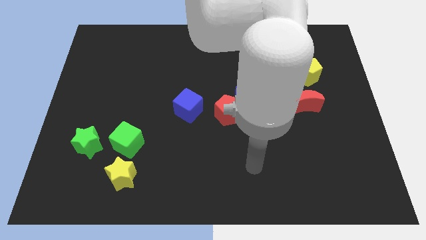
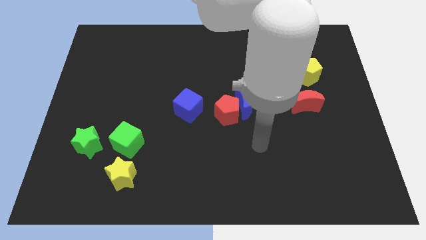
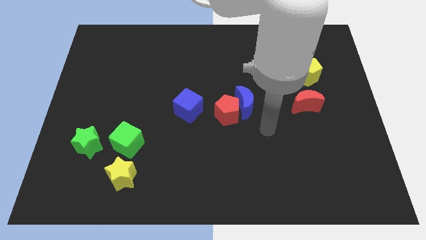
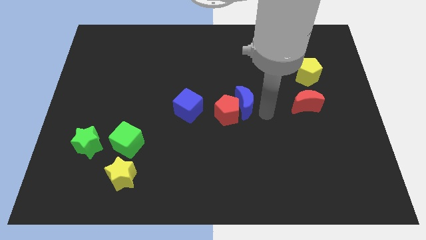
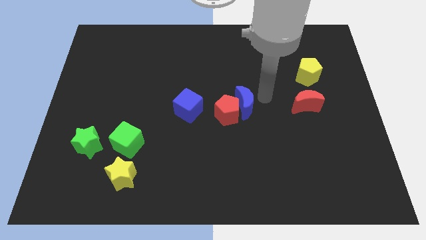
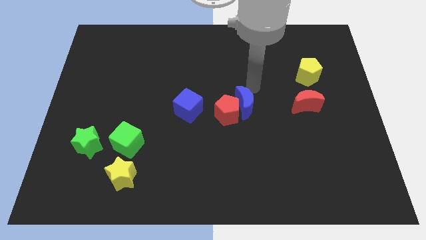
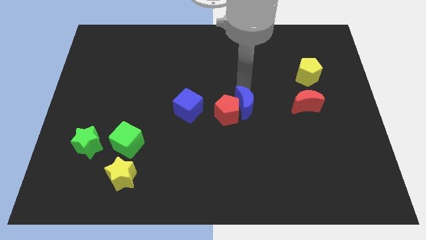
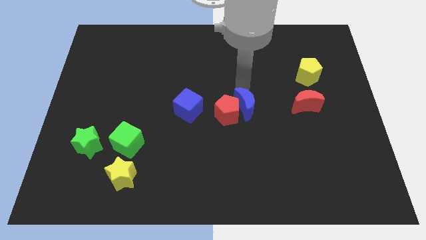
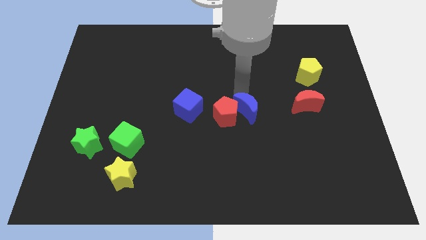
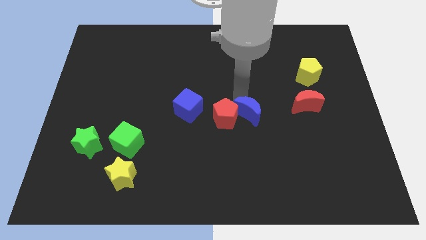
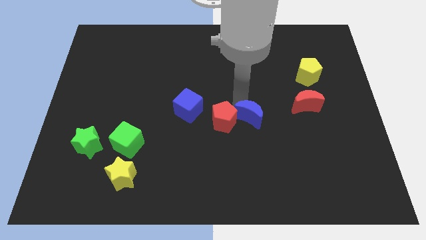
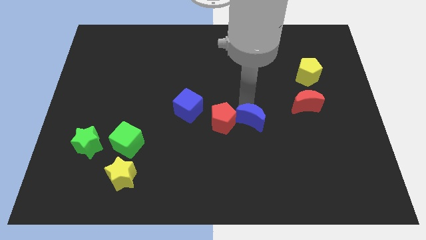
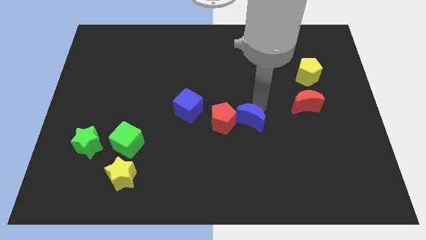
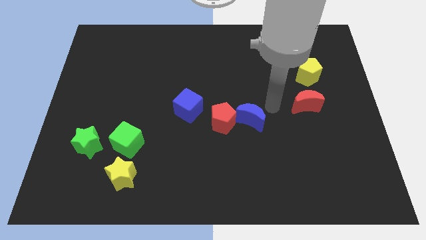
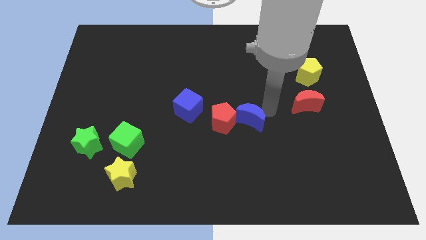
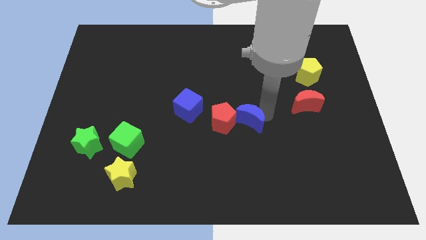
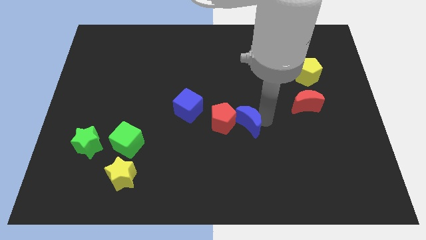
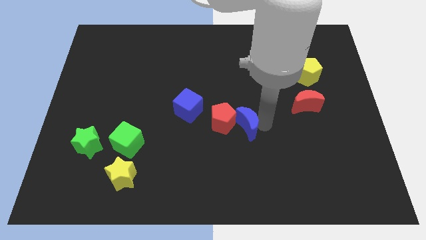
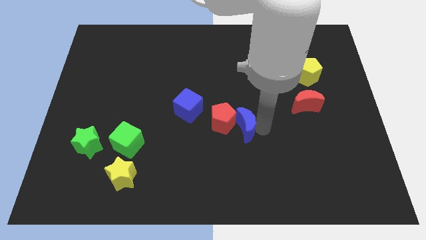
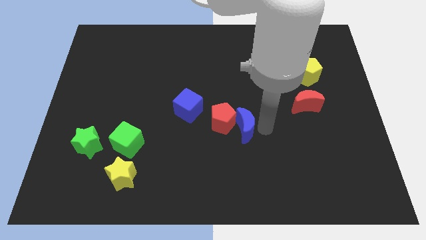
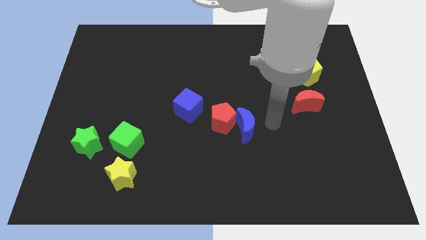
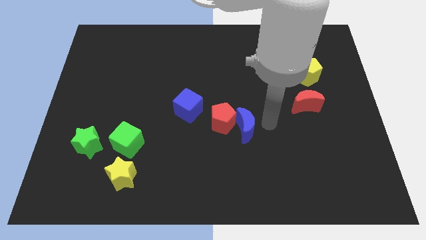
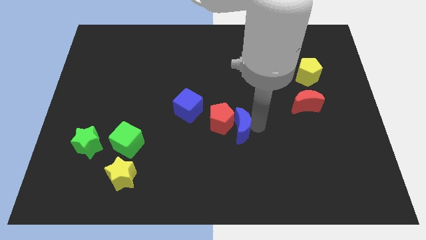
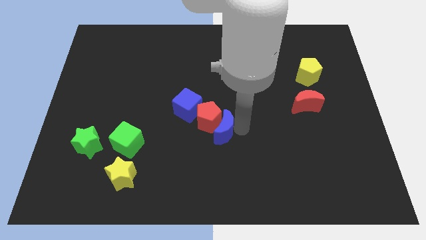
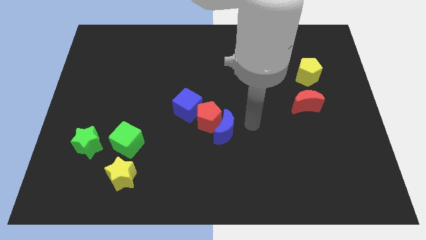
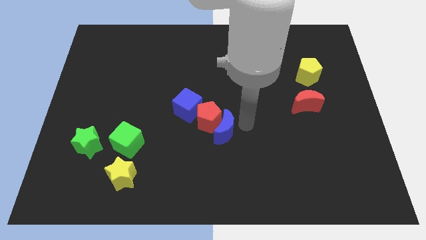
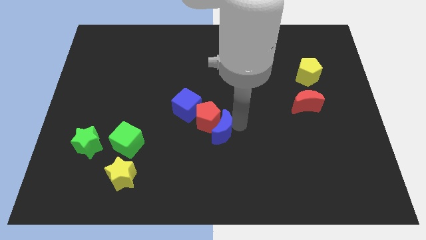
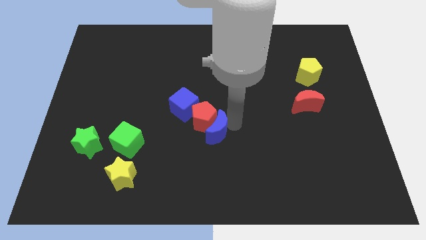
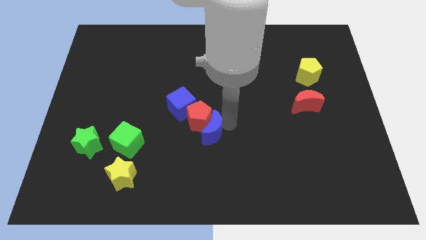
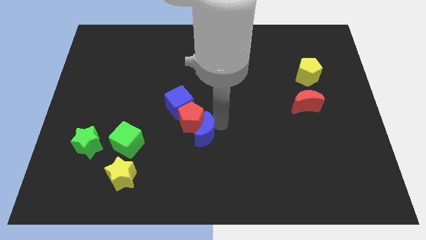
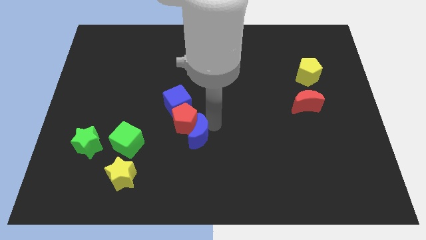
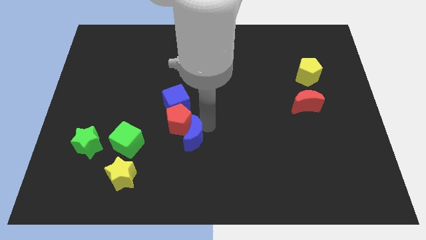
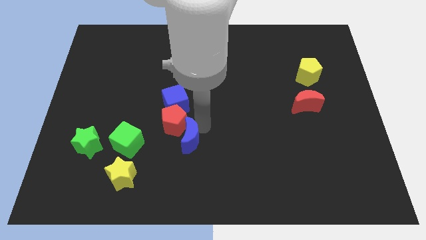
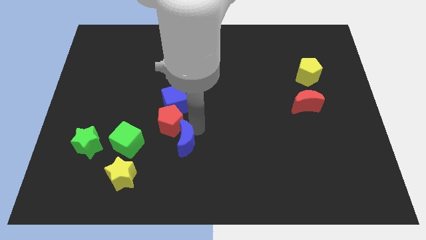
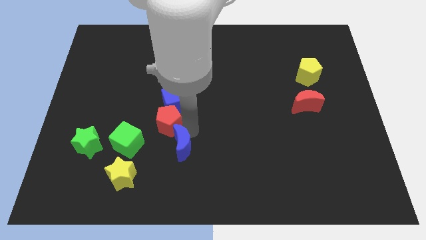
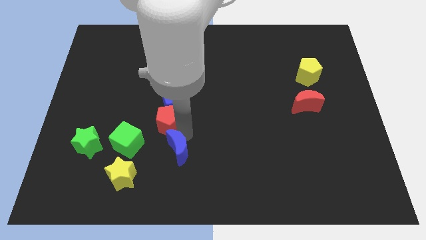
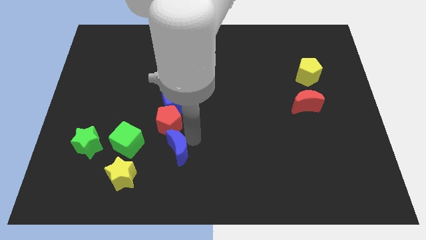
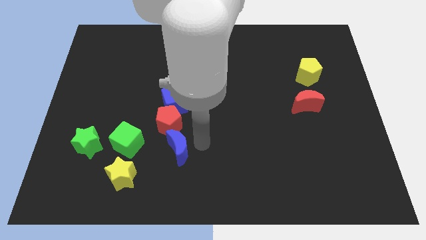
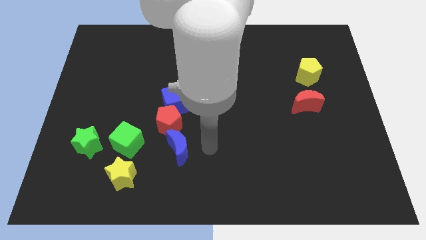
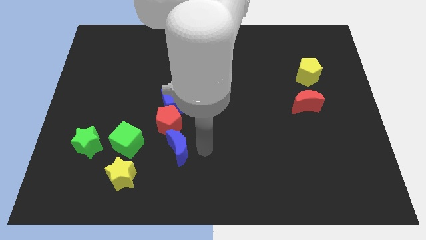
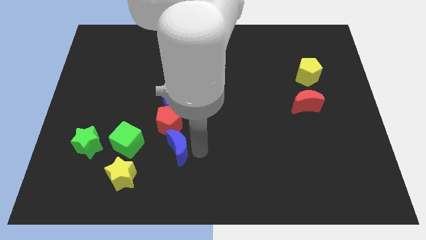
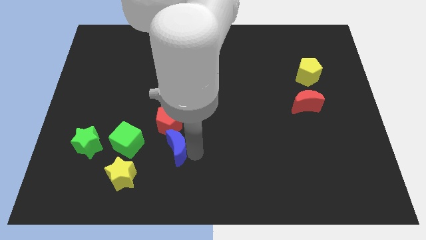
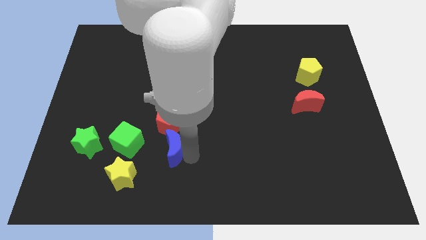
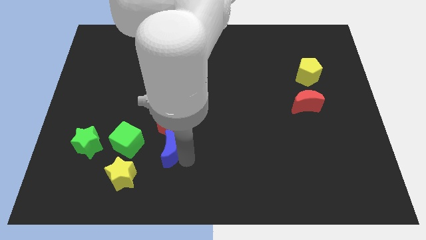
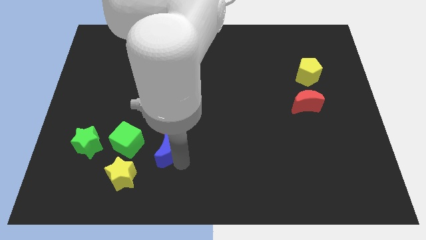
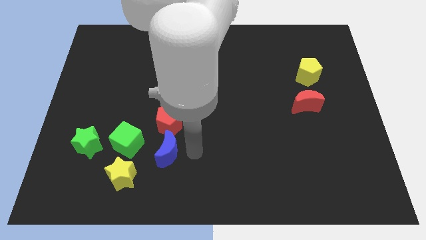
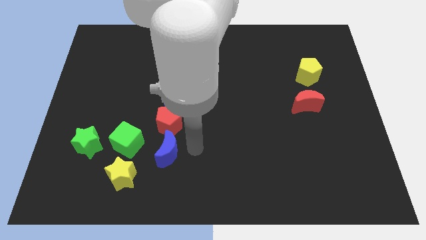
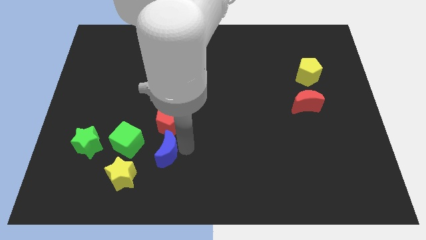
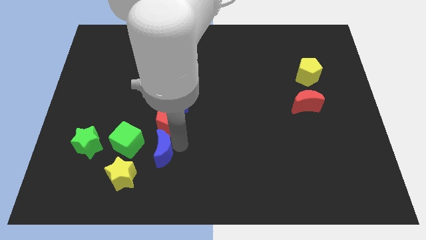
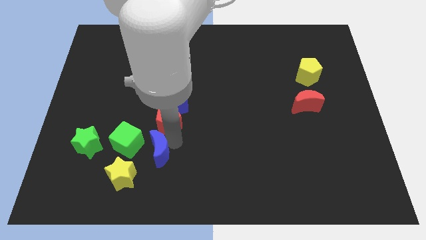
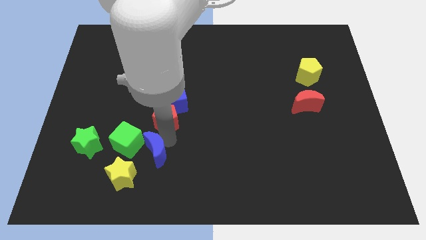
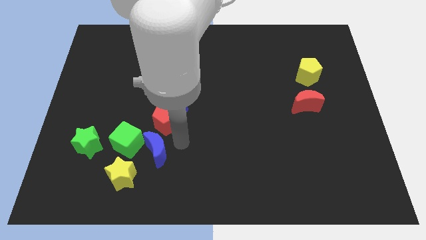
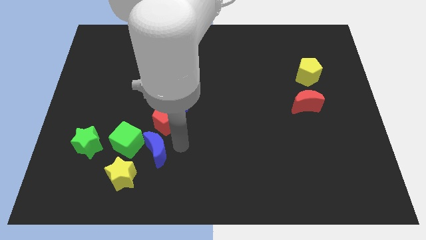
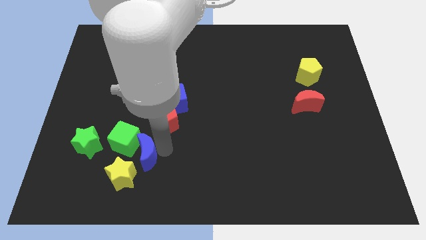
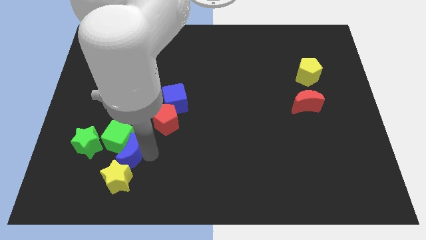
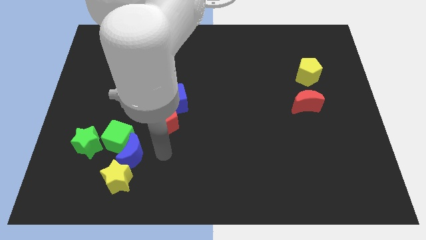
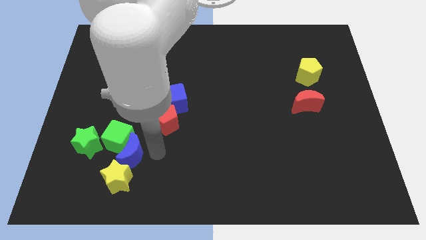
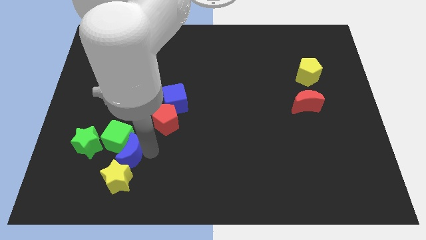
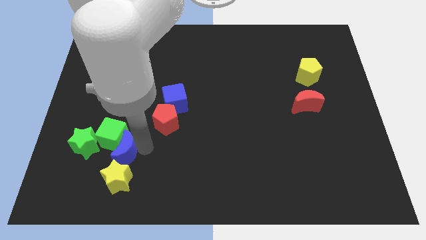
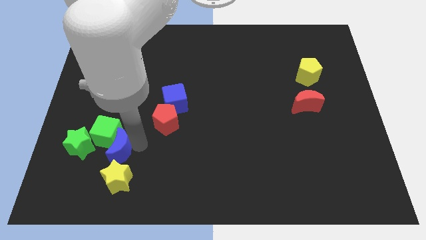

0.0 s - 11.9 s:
slide the blue moon to the top left side of the yellow star

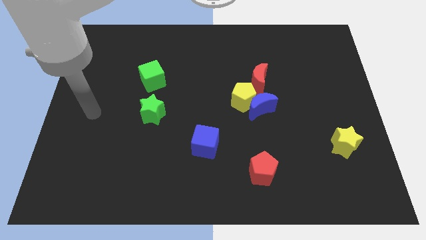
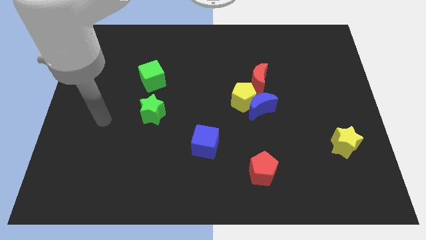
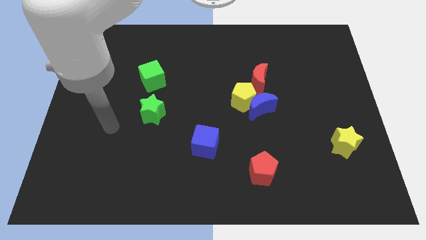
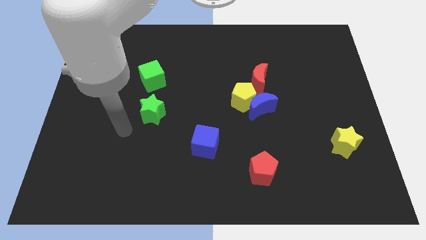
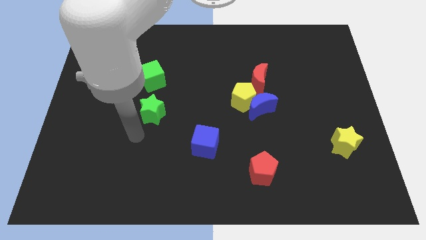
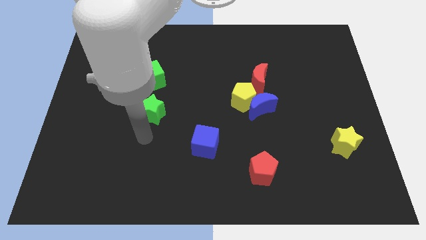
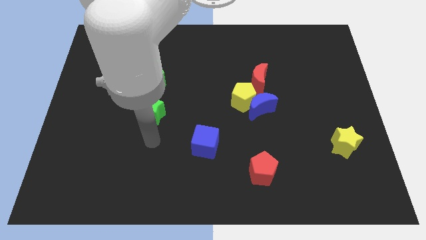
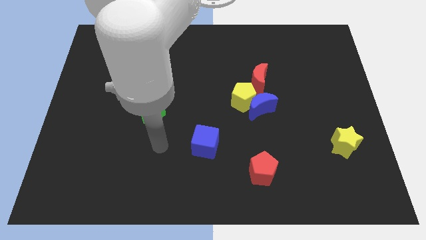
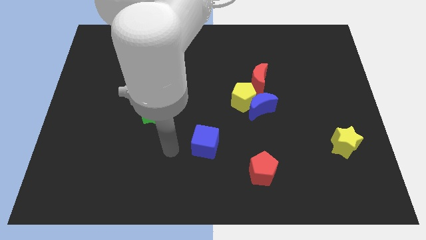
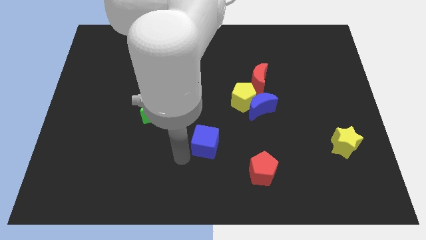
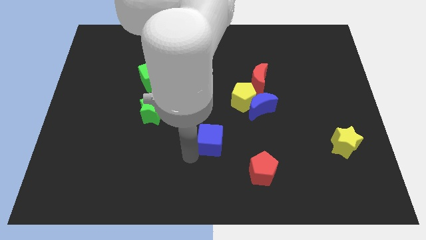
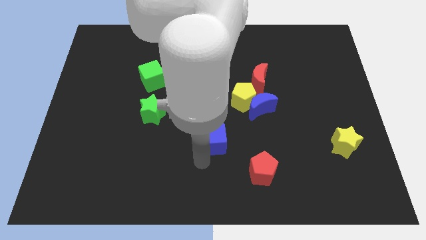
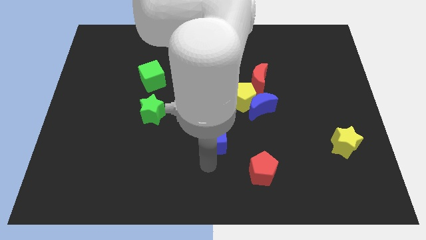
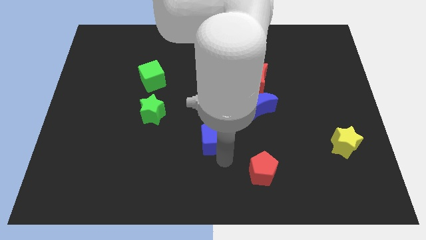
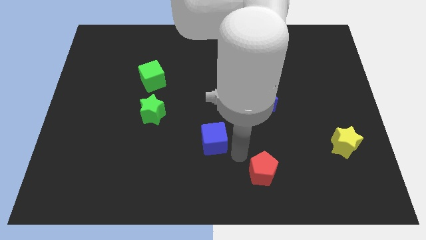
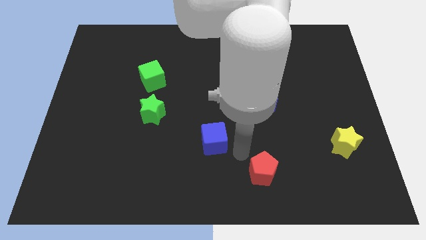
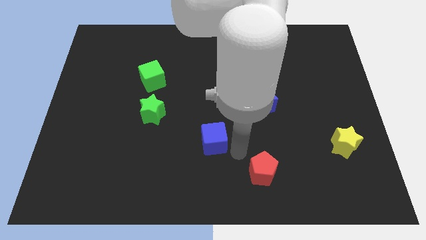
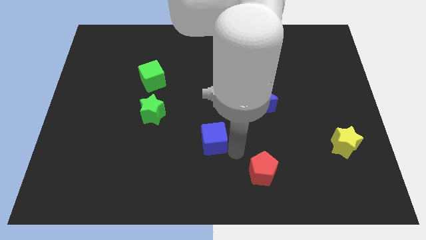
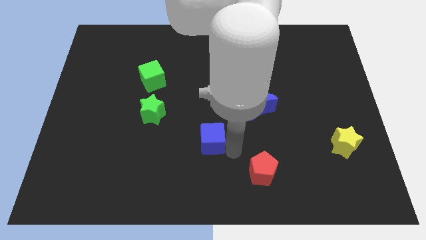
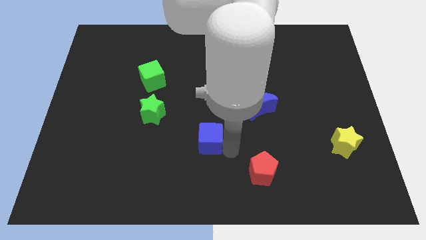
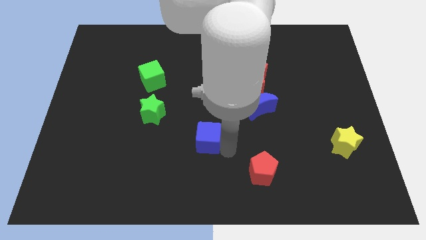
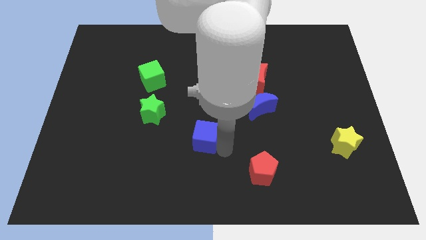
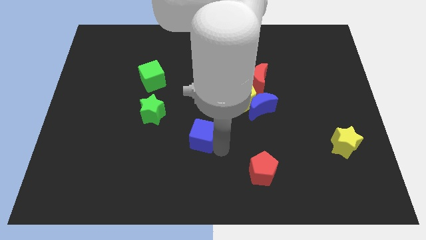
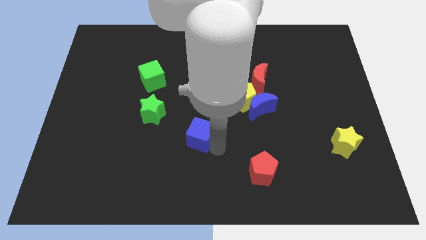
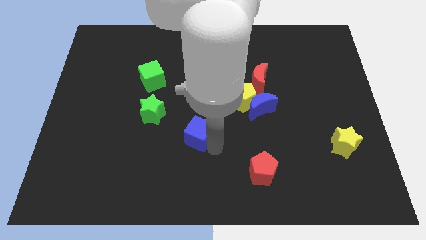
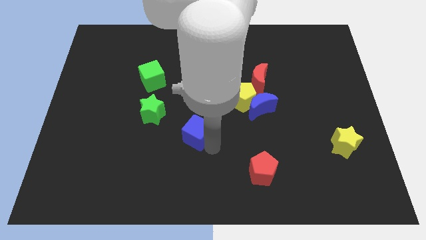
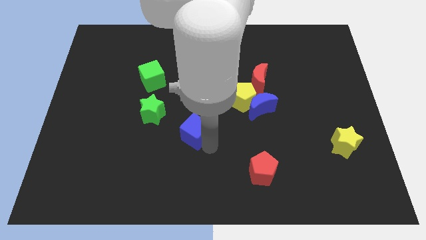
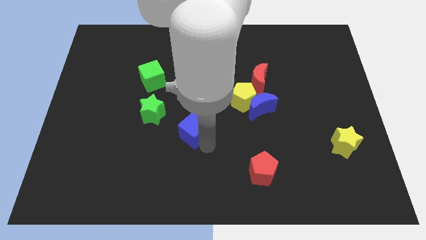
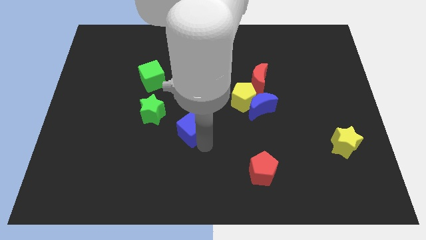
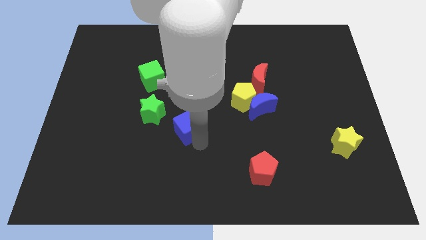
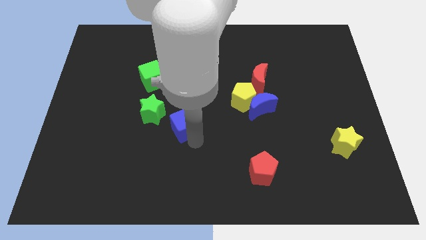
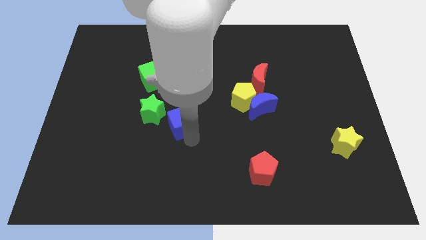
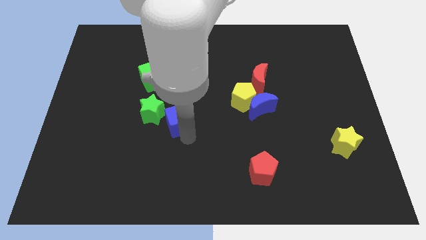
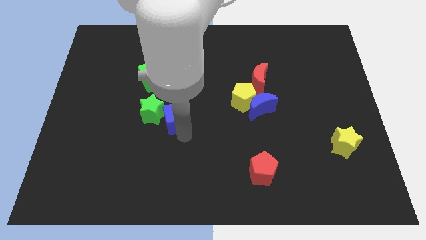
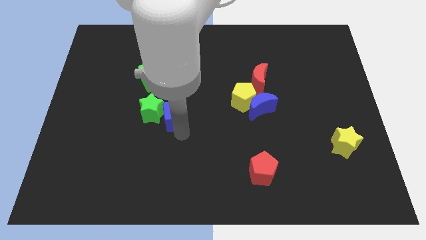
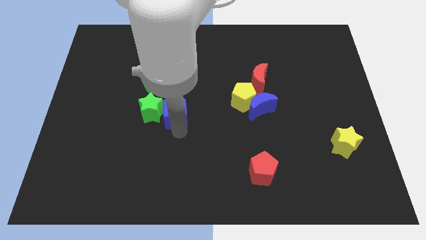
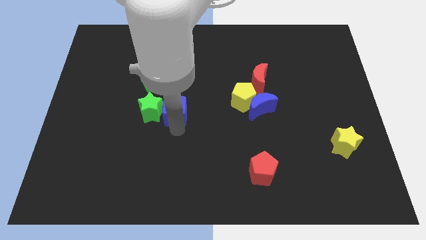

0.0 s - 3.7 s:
slide the blue cube diagonally up and to the right of the green star
